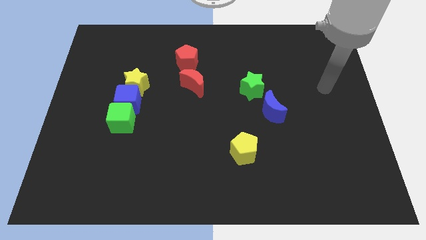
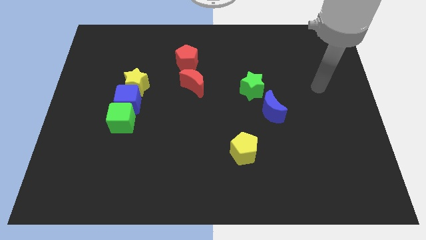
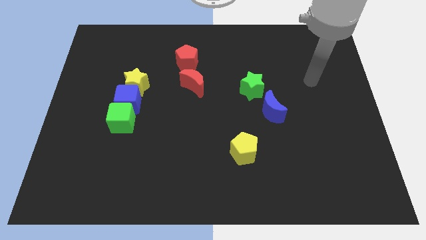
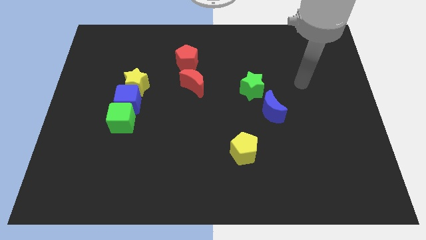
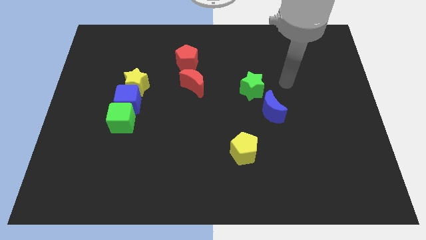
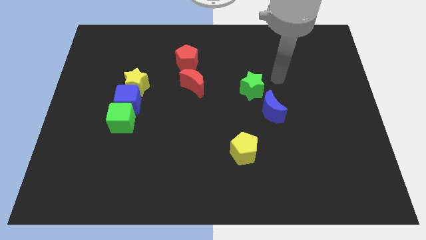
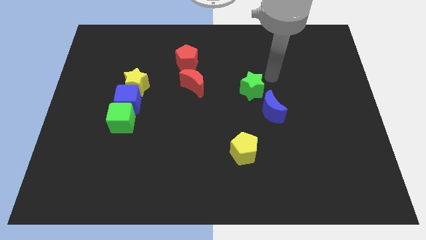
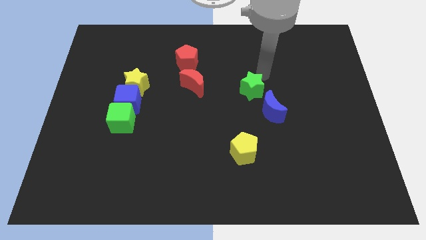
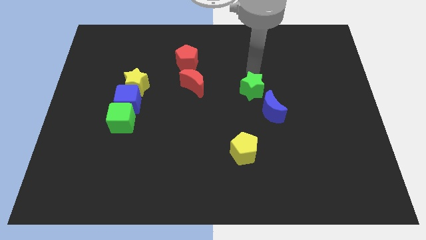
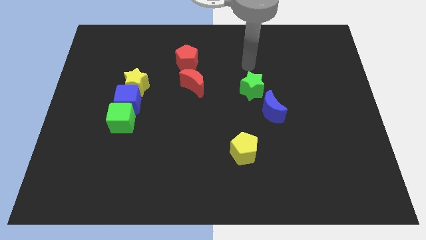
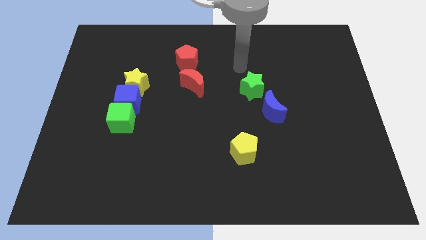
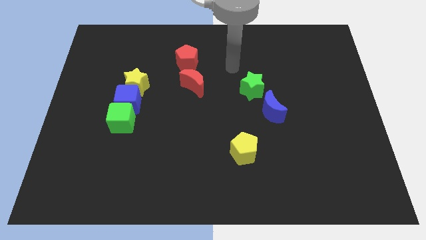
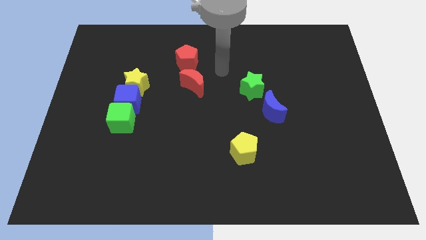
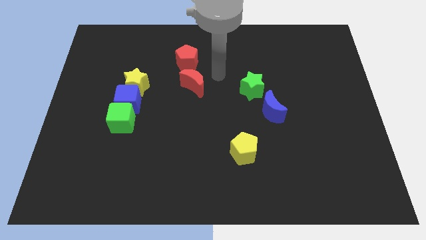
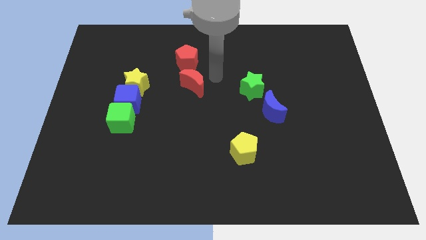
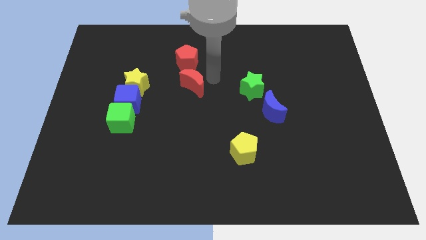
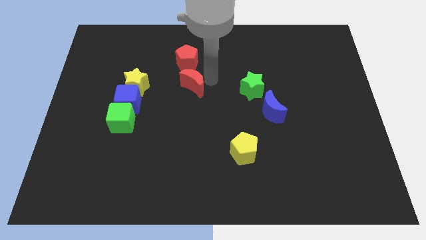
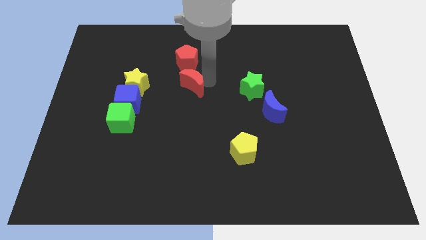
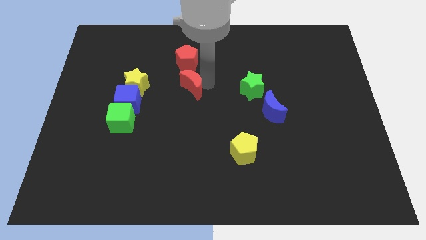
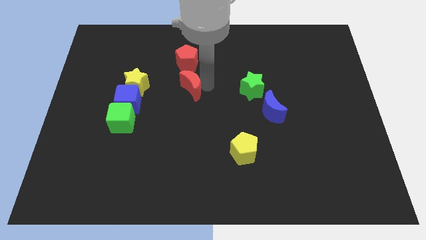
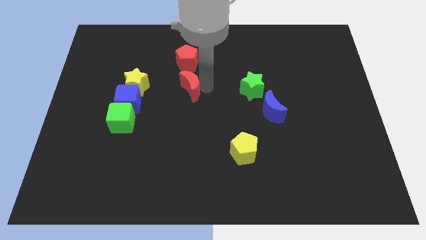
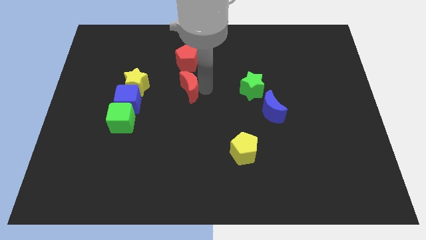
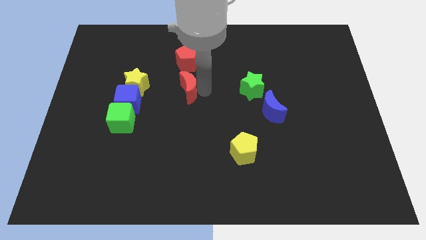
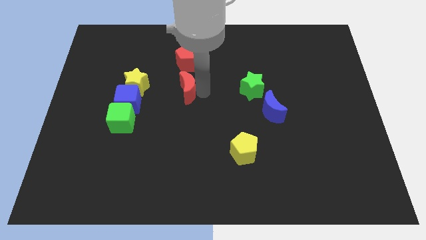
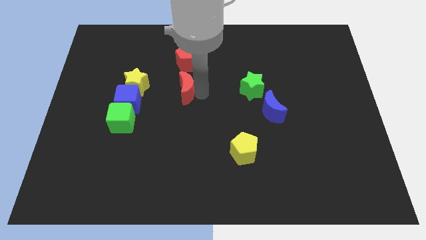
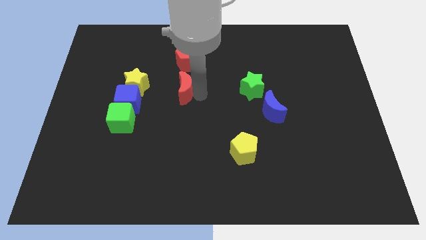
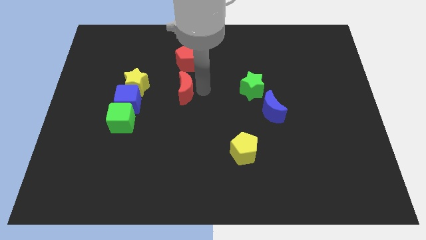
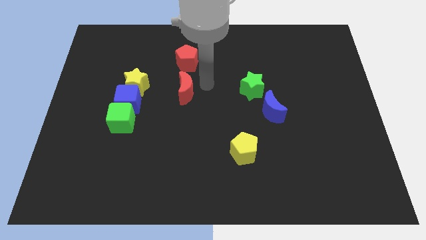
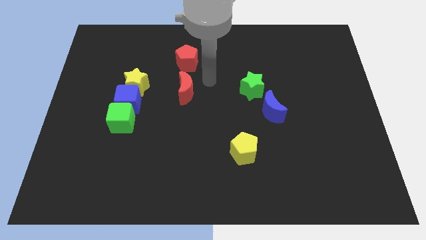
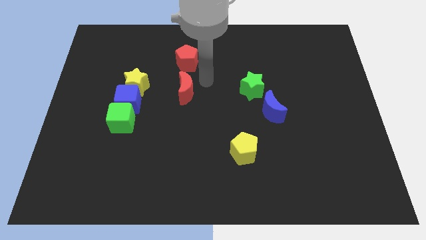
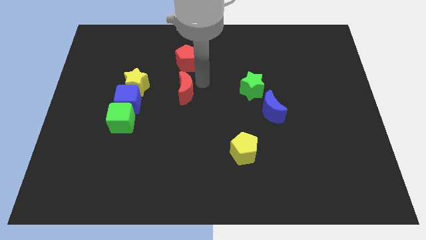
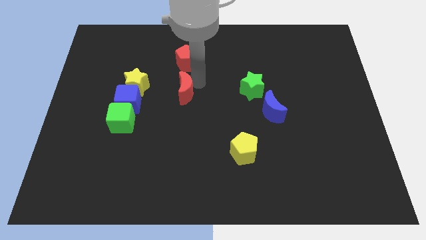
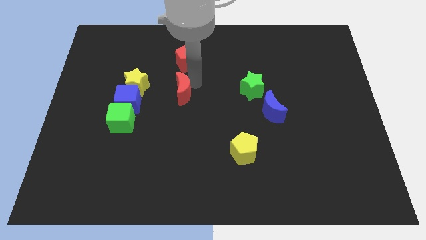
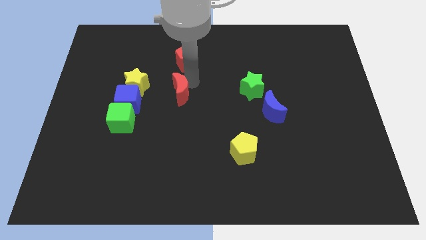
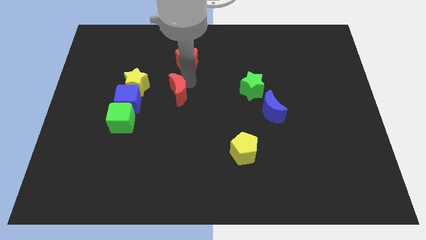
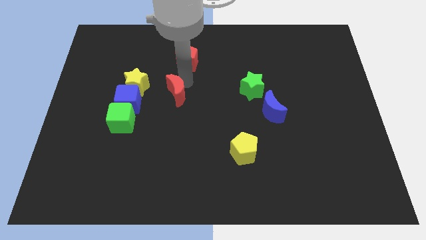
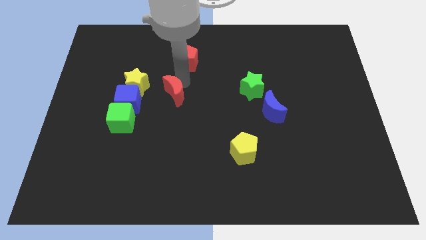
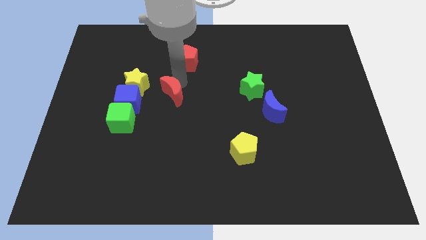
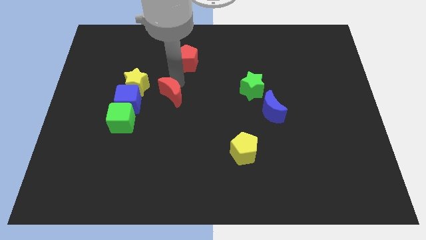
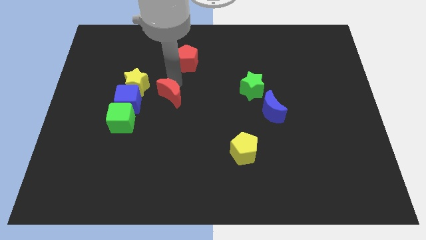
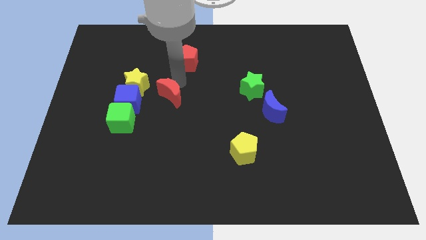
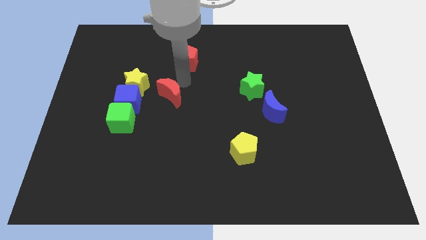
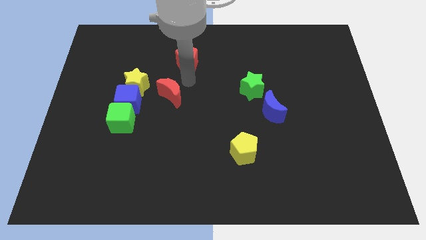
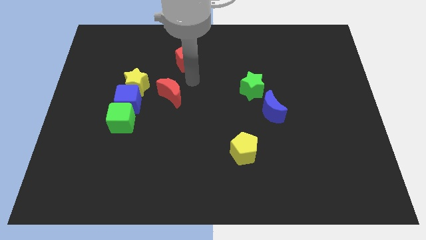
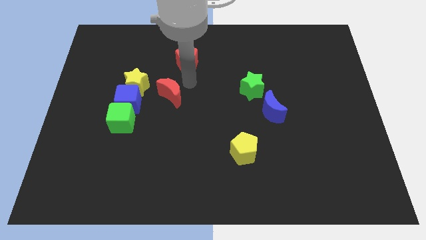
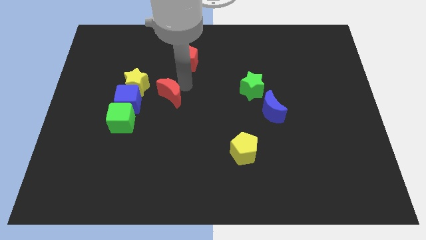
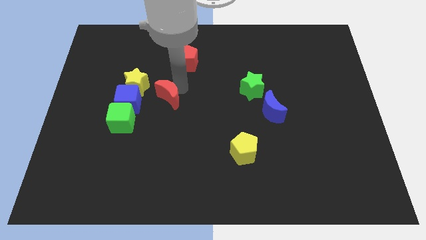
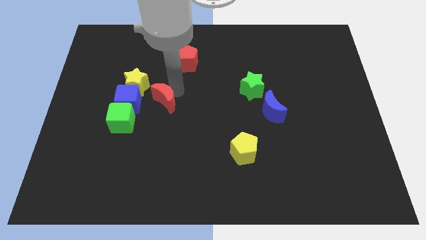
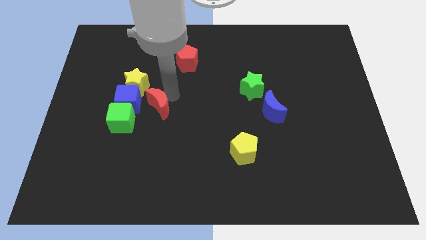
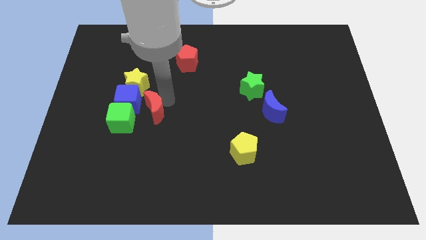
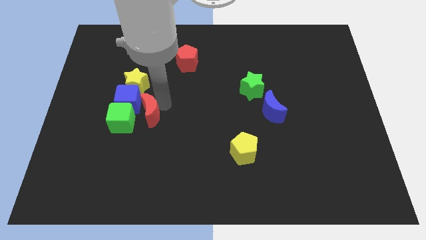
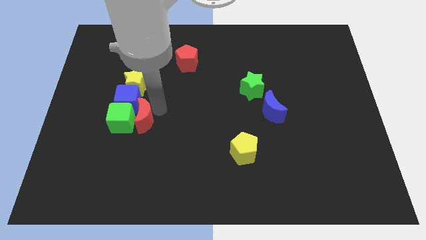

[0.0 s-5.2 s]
move the red moon next to the green cube

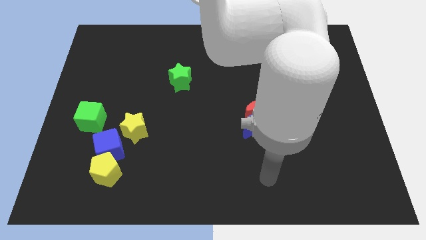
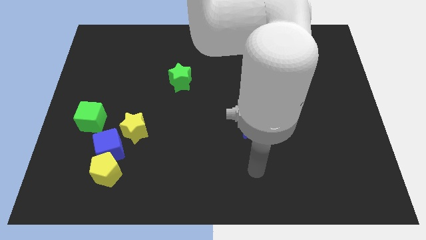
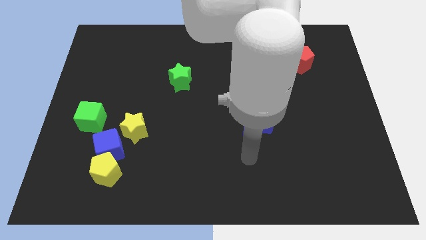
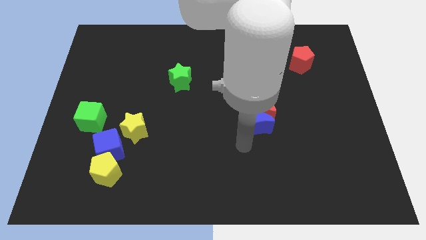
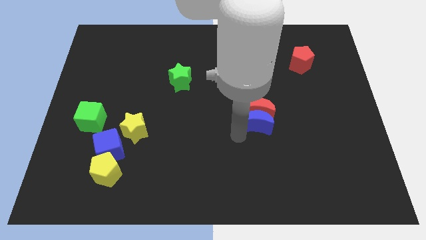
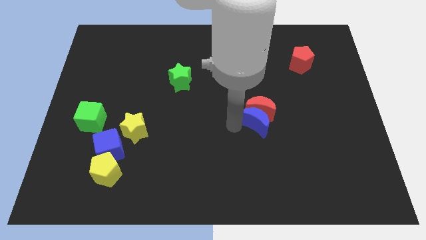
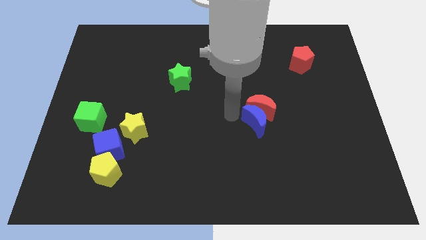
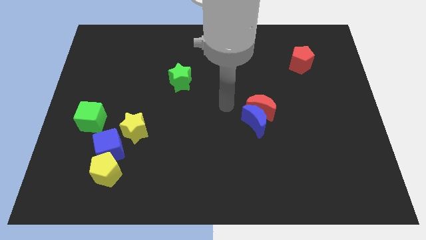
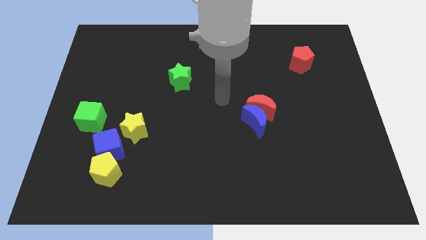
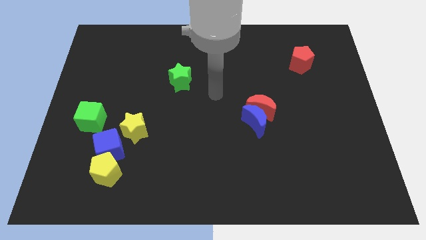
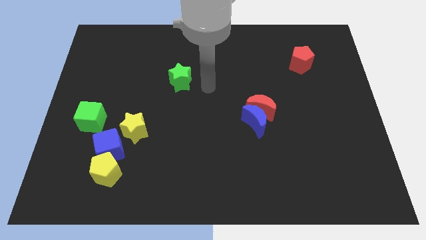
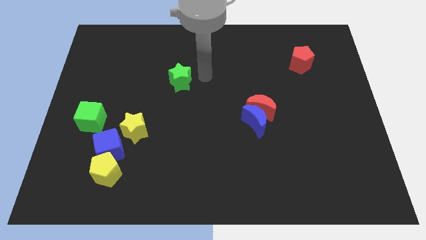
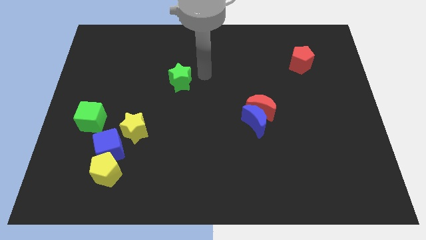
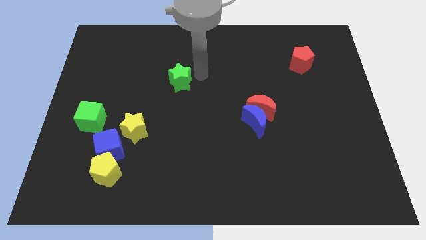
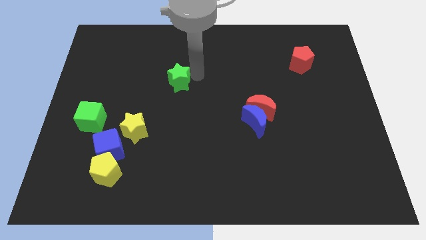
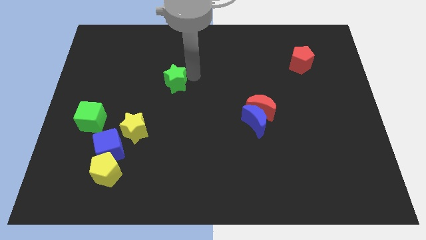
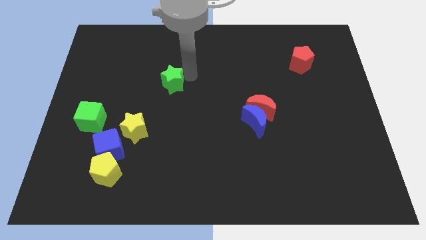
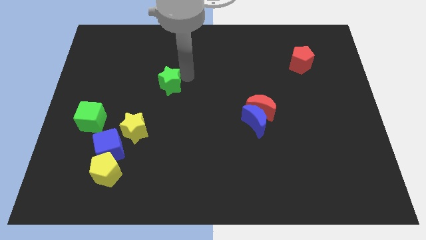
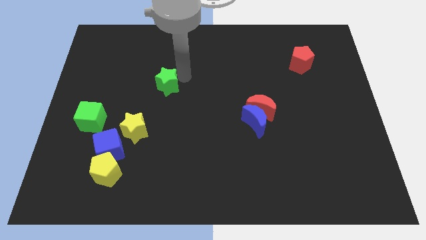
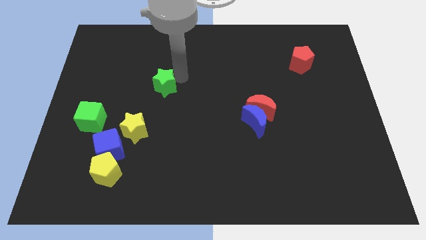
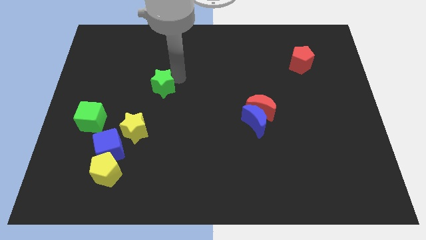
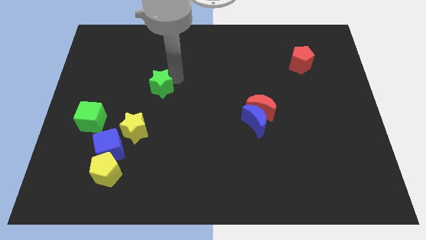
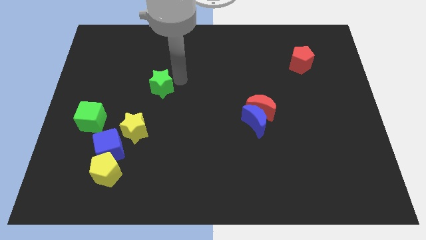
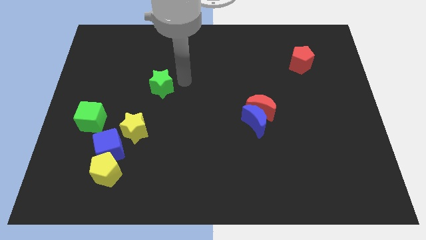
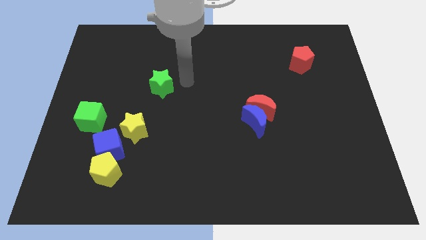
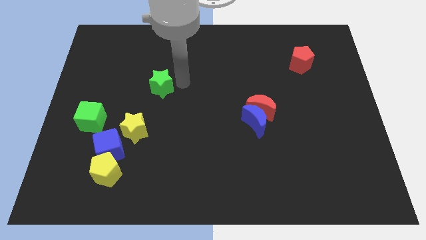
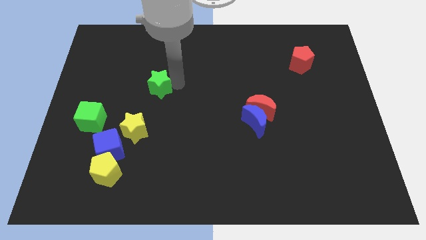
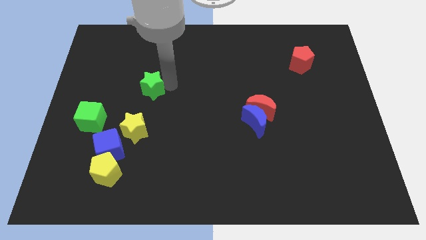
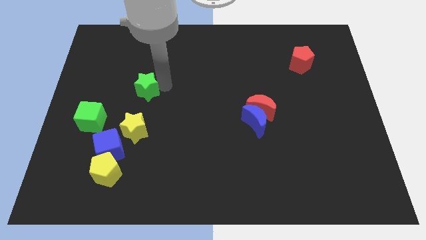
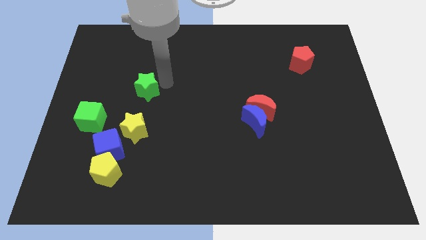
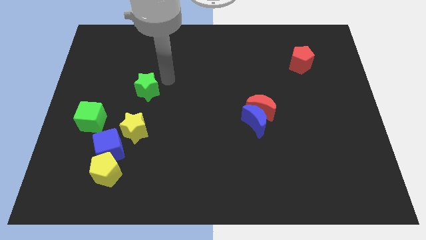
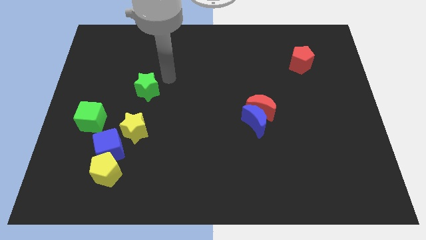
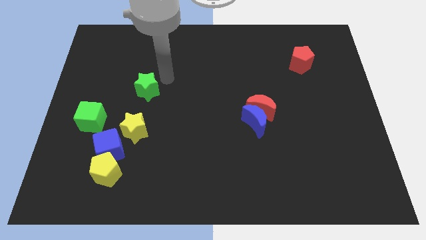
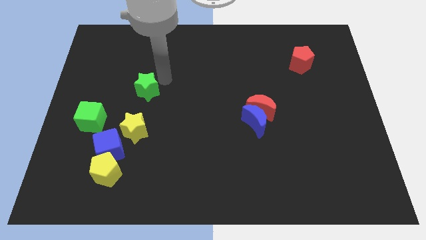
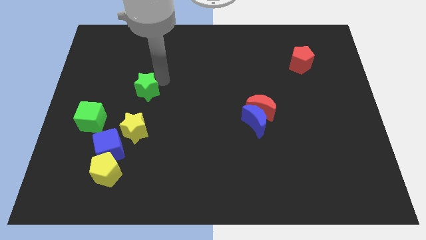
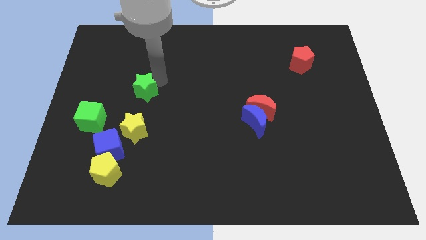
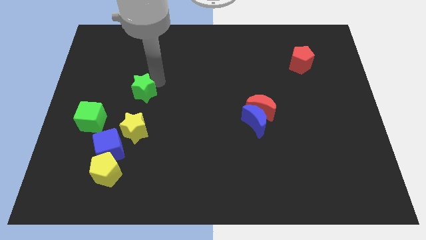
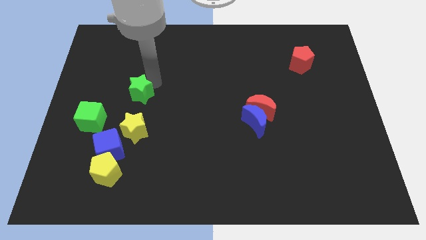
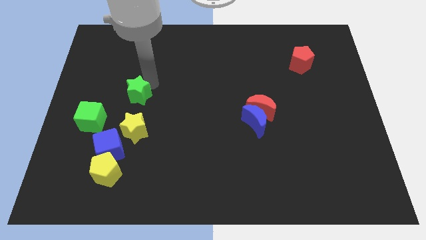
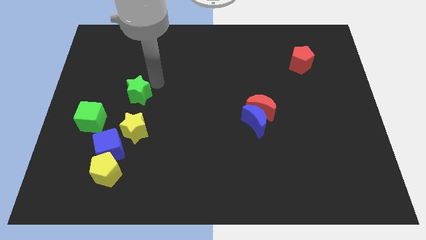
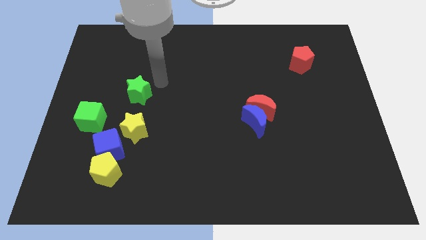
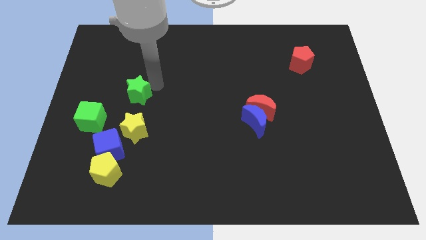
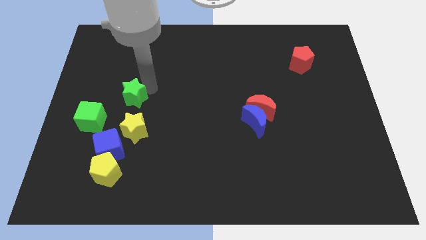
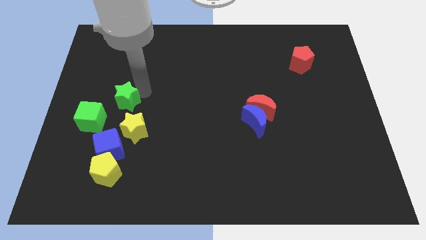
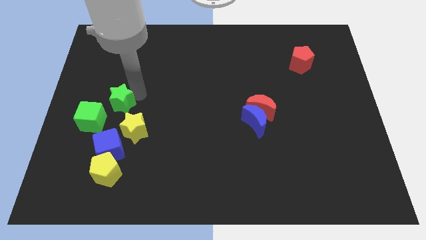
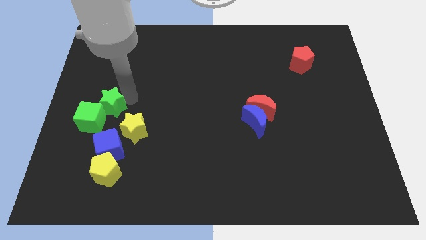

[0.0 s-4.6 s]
put the green star close to the green cube
